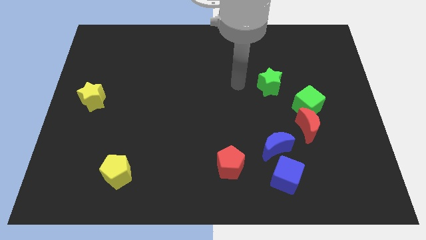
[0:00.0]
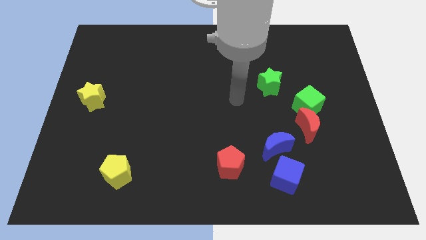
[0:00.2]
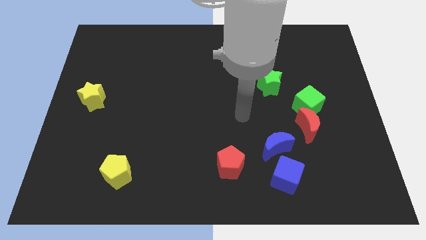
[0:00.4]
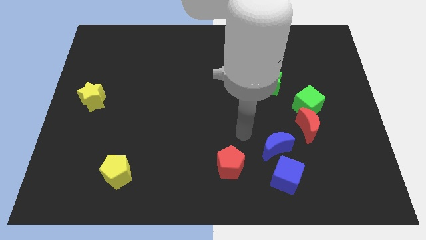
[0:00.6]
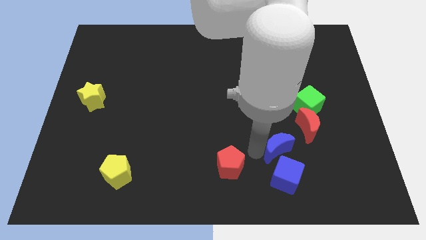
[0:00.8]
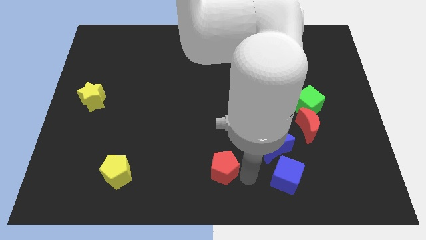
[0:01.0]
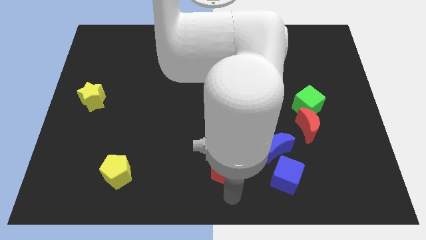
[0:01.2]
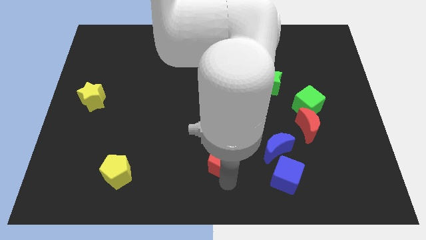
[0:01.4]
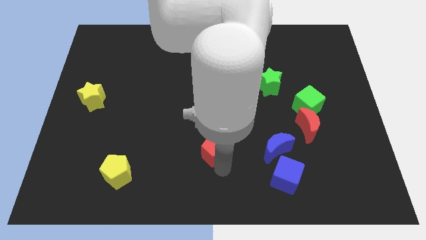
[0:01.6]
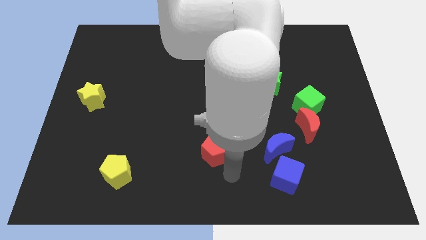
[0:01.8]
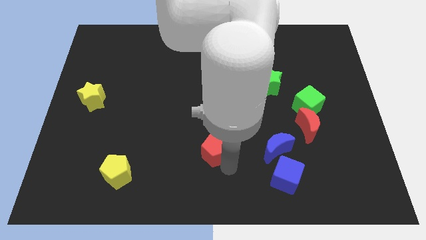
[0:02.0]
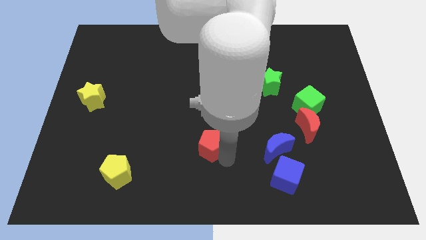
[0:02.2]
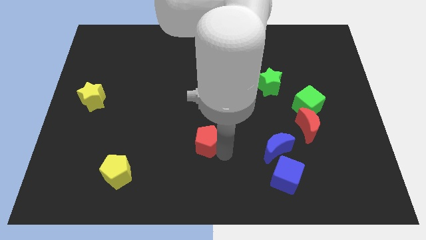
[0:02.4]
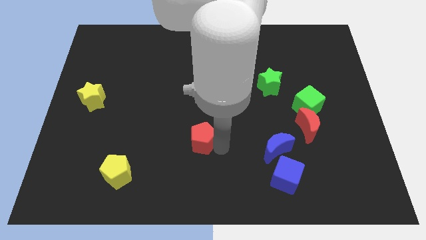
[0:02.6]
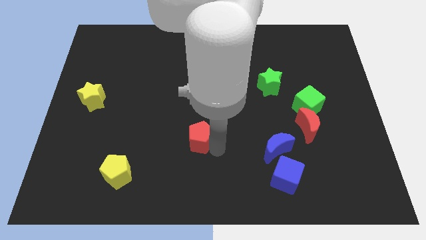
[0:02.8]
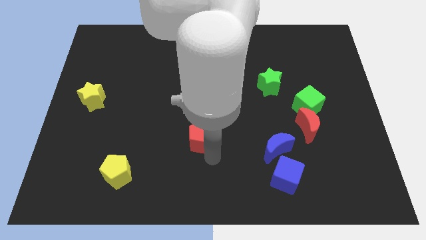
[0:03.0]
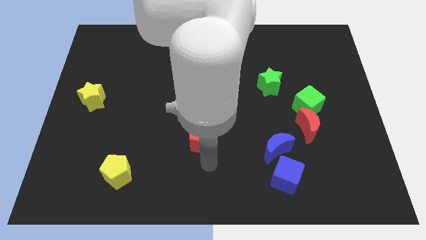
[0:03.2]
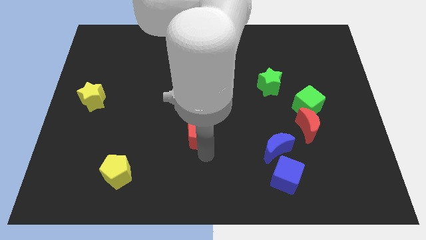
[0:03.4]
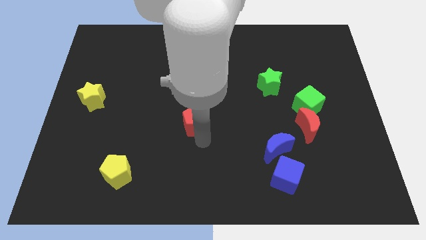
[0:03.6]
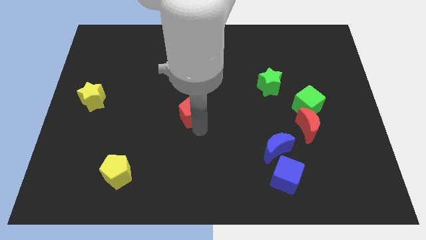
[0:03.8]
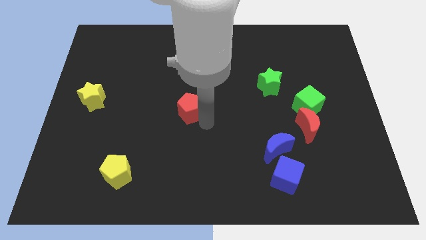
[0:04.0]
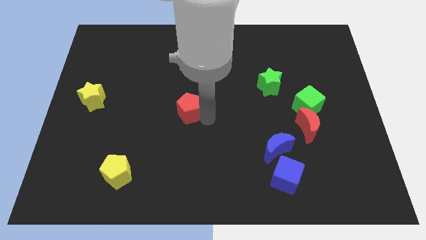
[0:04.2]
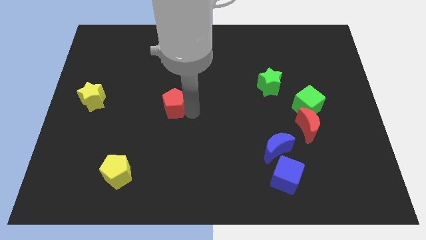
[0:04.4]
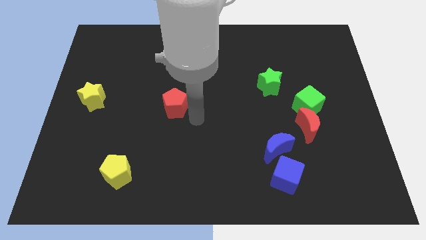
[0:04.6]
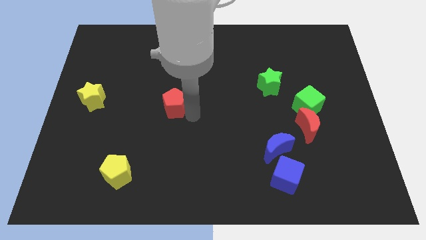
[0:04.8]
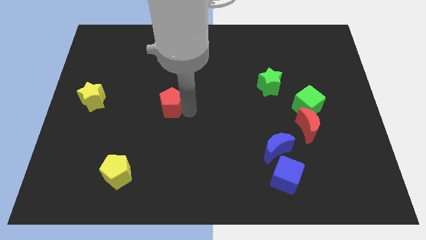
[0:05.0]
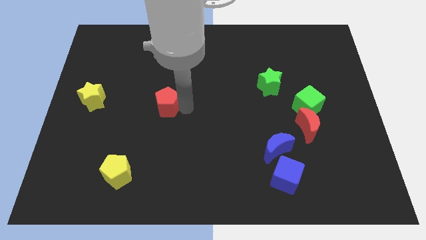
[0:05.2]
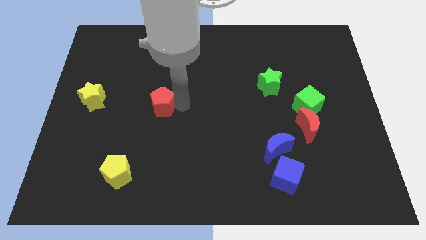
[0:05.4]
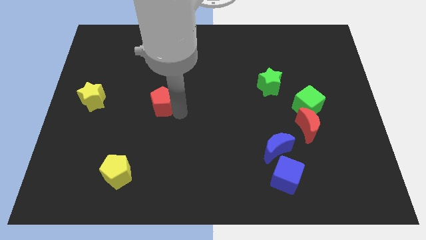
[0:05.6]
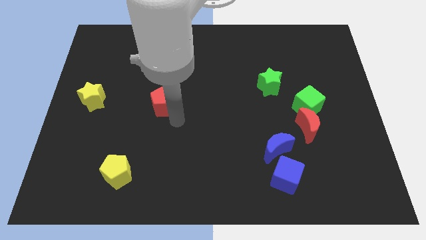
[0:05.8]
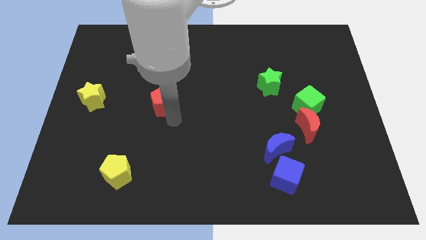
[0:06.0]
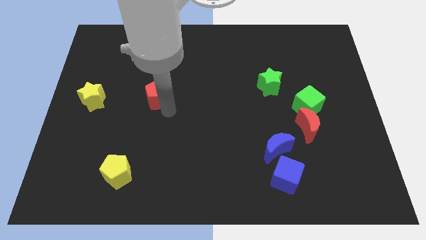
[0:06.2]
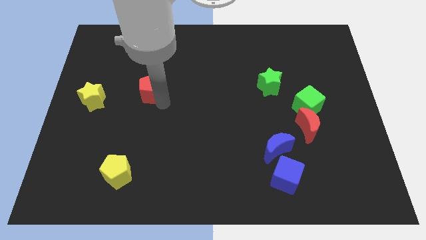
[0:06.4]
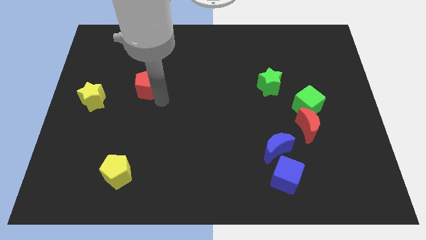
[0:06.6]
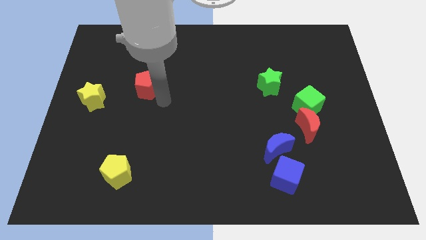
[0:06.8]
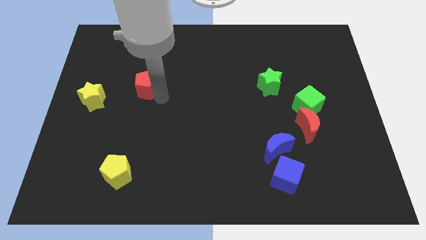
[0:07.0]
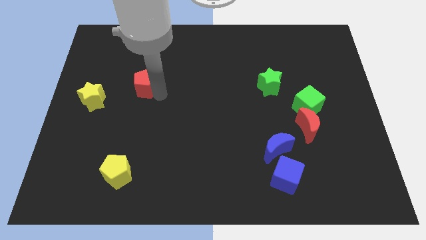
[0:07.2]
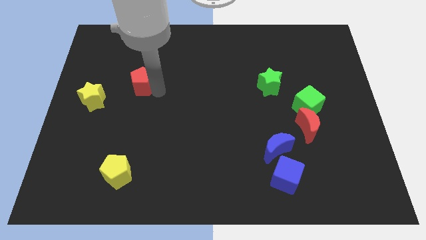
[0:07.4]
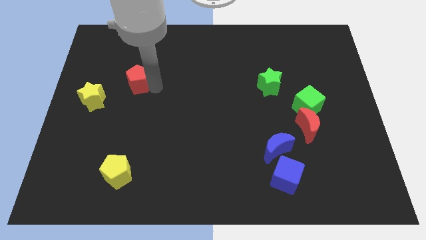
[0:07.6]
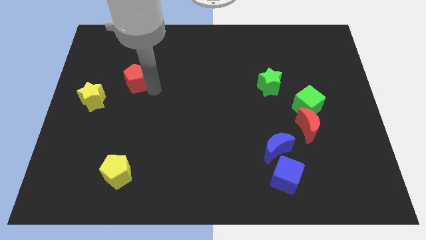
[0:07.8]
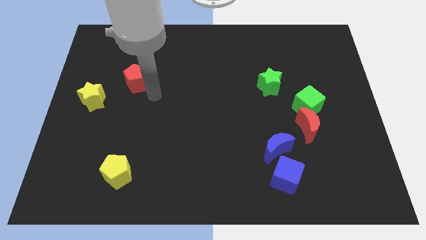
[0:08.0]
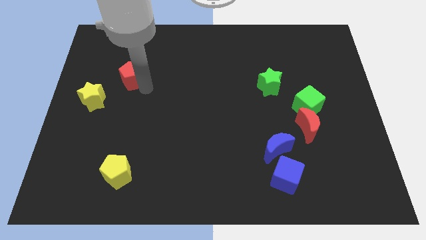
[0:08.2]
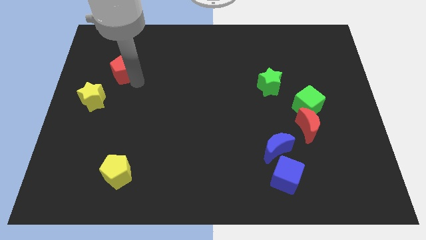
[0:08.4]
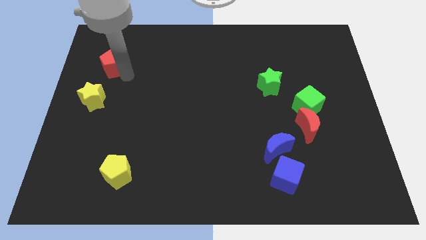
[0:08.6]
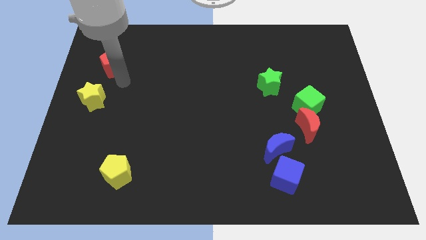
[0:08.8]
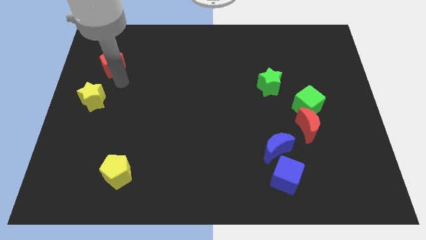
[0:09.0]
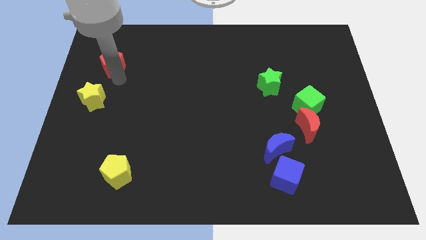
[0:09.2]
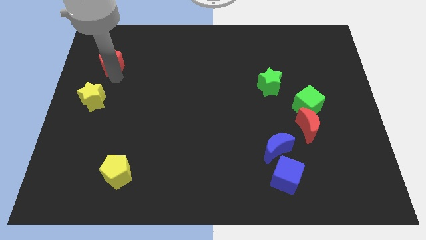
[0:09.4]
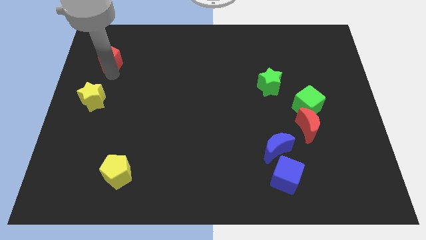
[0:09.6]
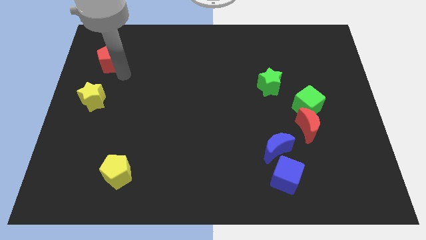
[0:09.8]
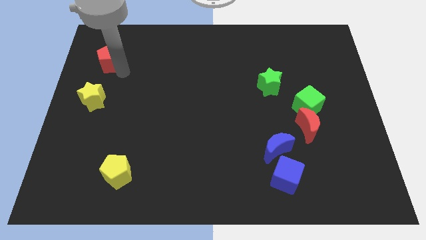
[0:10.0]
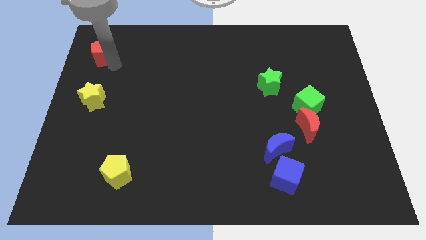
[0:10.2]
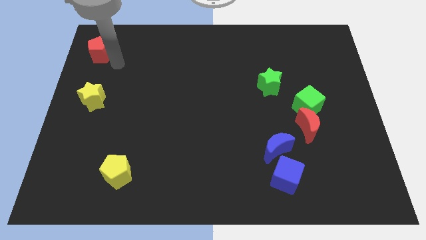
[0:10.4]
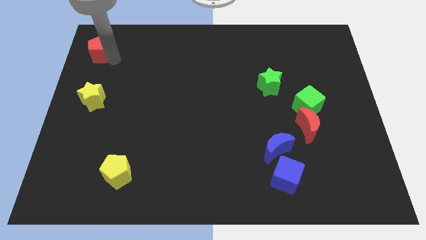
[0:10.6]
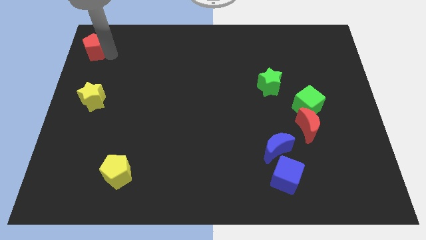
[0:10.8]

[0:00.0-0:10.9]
move the red pentagon to the top left
